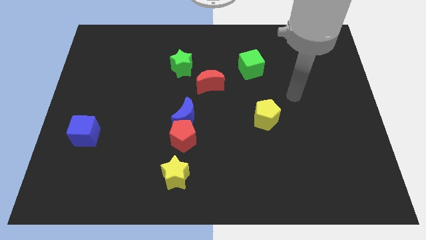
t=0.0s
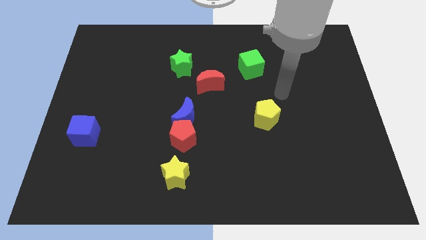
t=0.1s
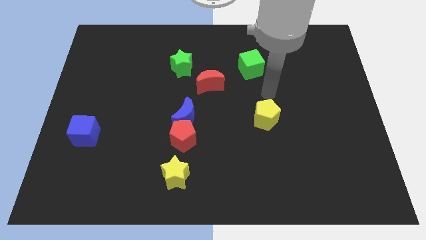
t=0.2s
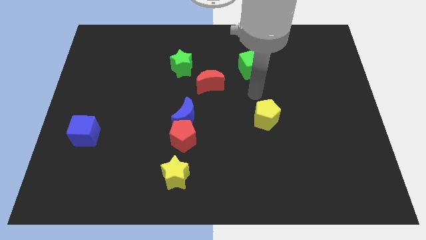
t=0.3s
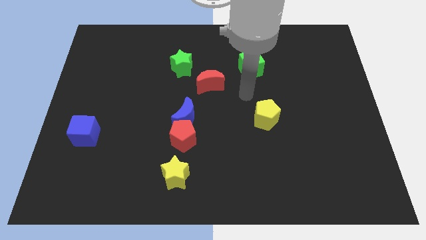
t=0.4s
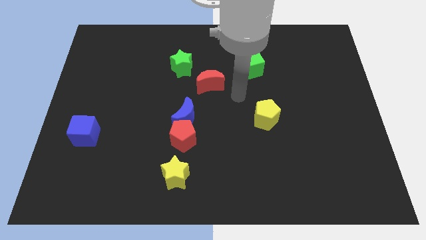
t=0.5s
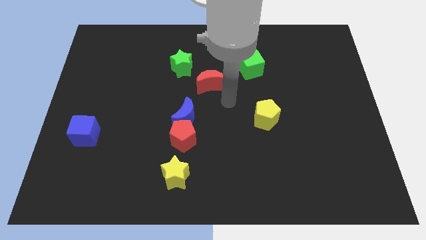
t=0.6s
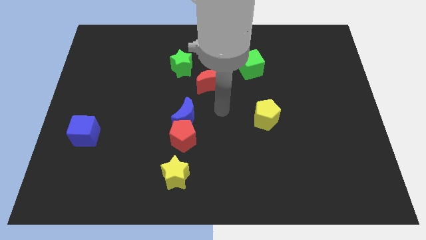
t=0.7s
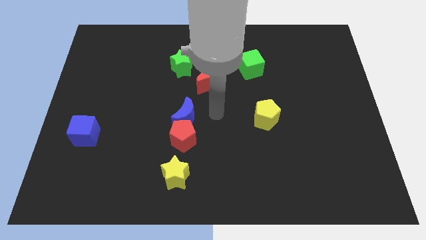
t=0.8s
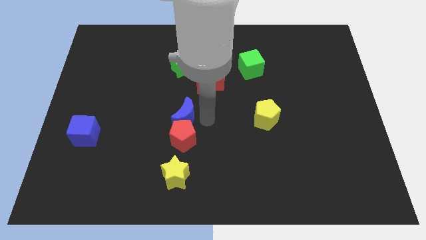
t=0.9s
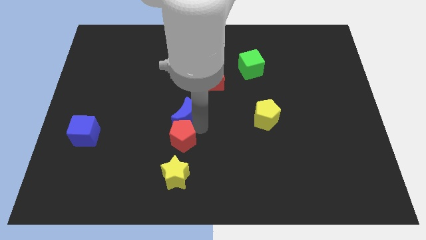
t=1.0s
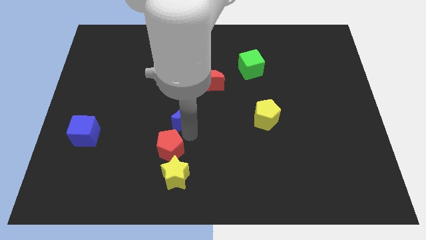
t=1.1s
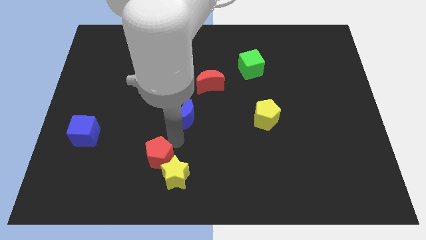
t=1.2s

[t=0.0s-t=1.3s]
separate the blue moon from the red pentagon

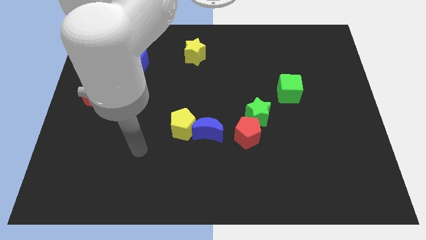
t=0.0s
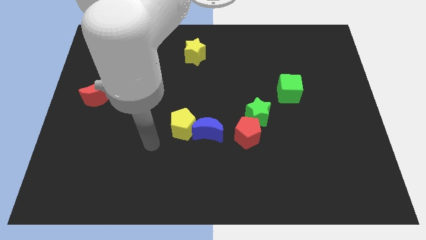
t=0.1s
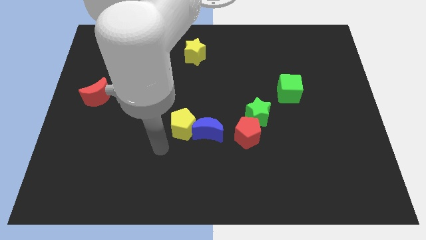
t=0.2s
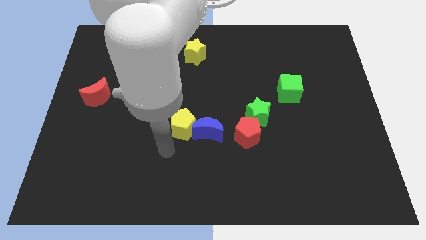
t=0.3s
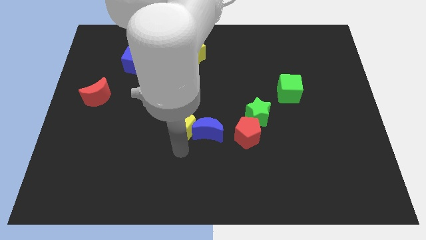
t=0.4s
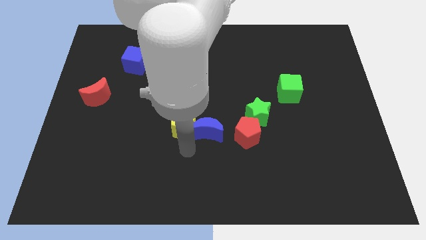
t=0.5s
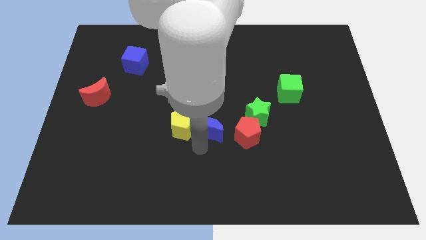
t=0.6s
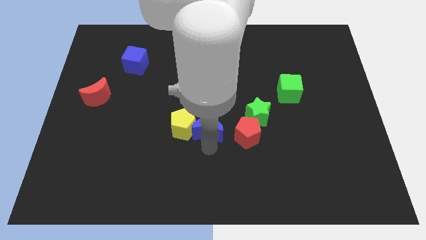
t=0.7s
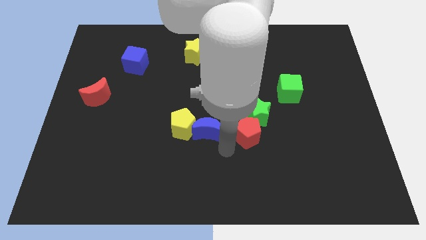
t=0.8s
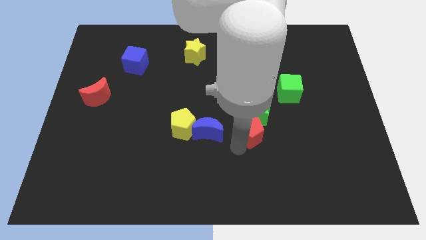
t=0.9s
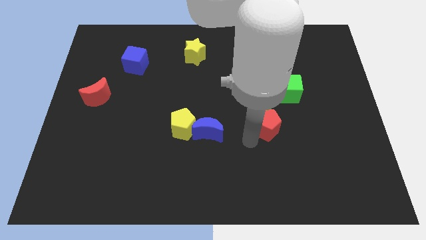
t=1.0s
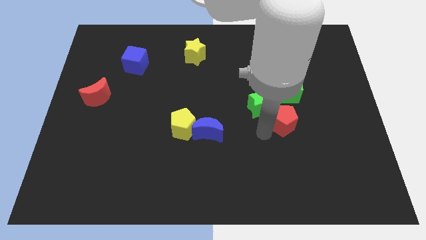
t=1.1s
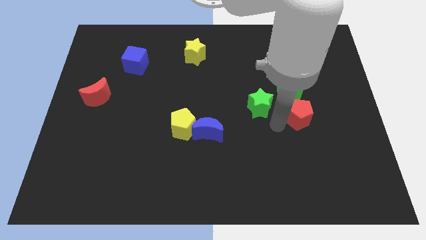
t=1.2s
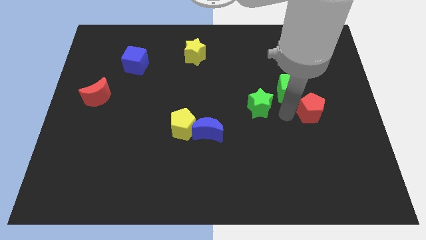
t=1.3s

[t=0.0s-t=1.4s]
separate the green star from the red pentagon

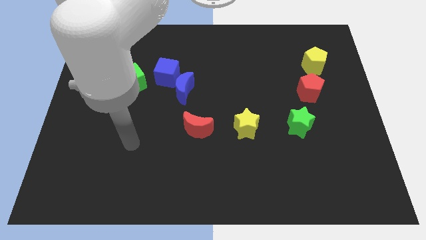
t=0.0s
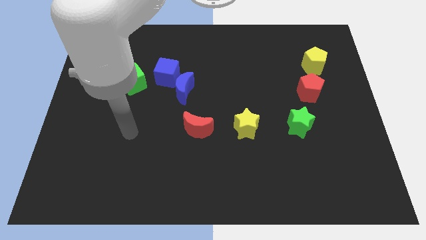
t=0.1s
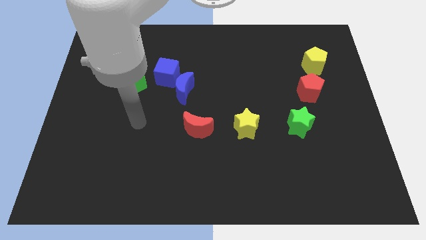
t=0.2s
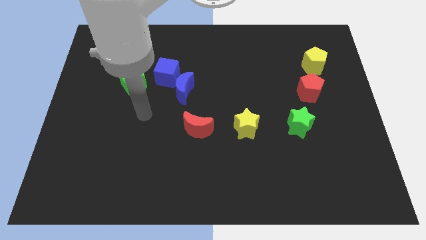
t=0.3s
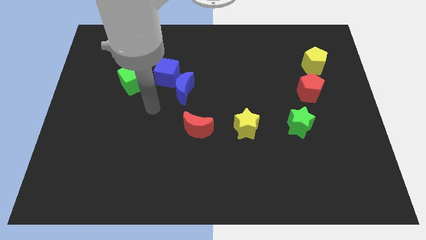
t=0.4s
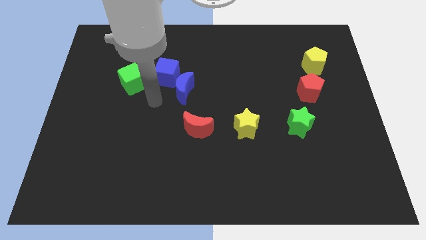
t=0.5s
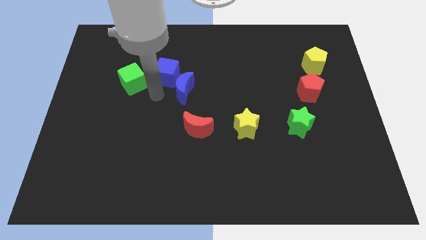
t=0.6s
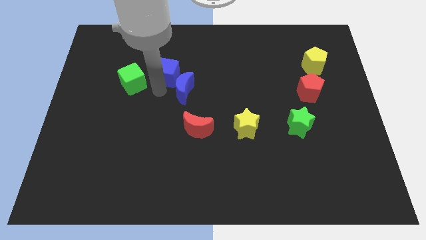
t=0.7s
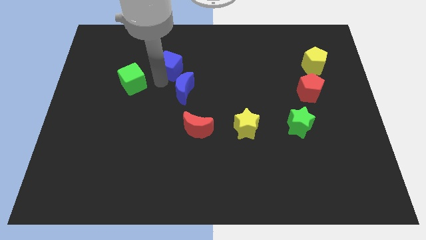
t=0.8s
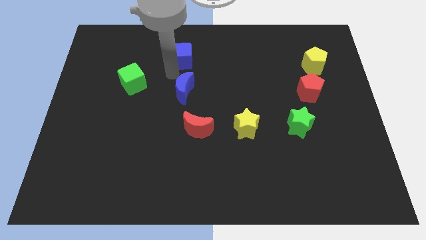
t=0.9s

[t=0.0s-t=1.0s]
move the blue moon away from the blue cube

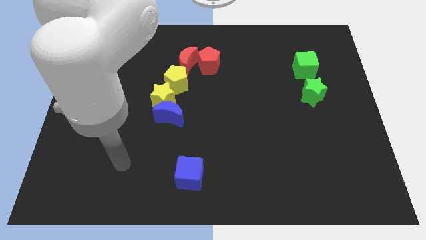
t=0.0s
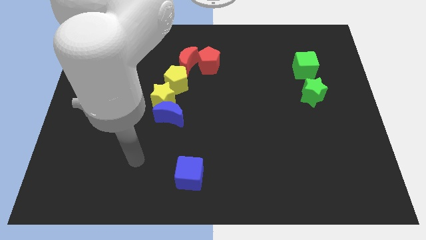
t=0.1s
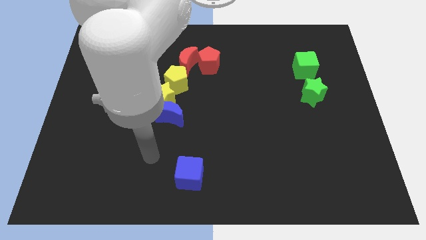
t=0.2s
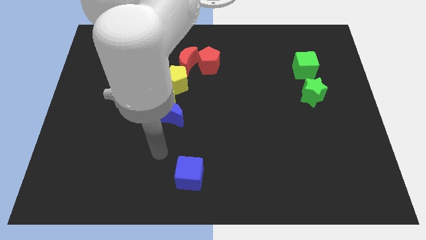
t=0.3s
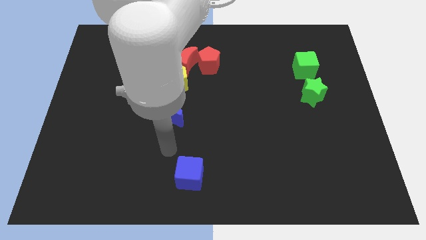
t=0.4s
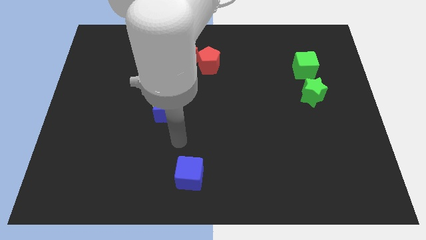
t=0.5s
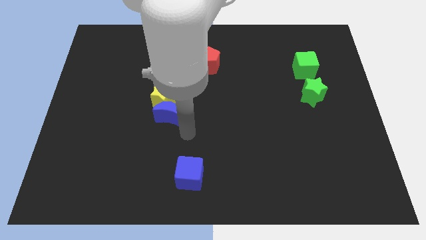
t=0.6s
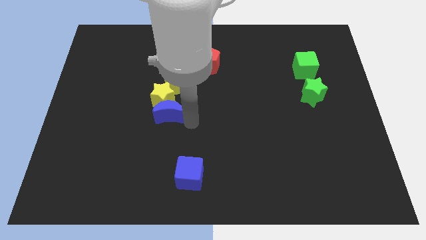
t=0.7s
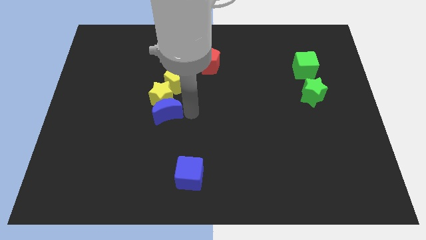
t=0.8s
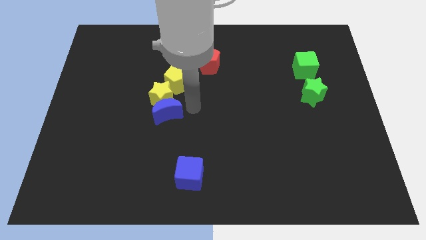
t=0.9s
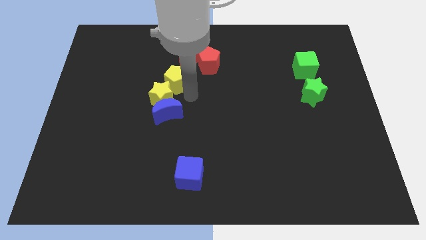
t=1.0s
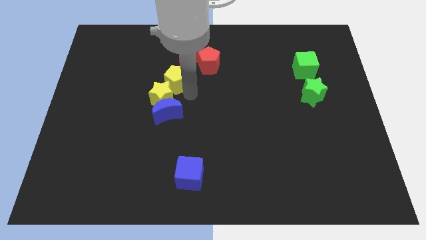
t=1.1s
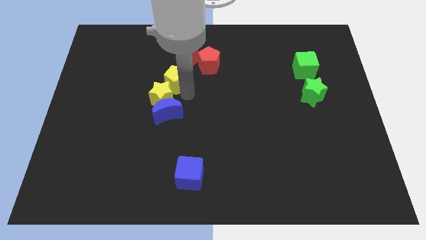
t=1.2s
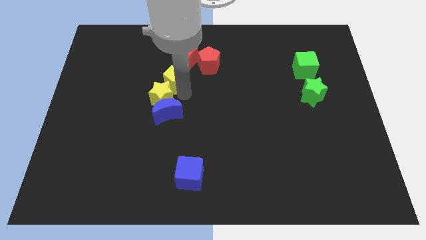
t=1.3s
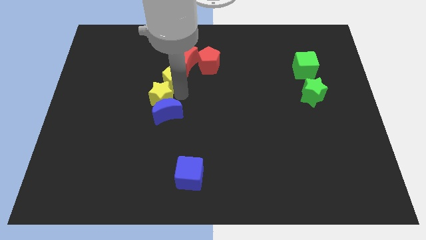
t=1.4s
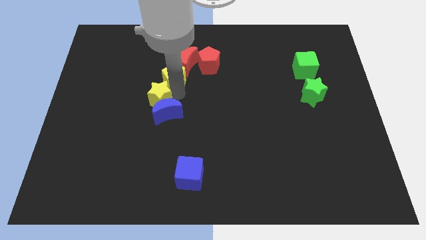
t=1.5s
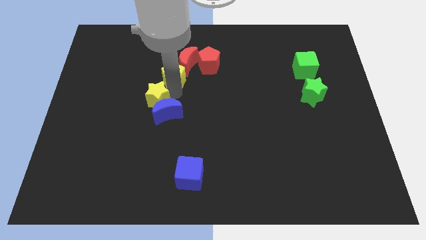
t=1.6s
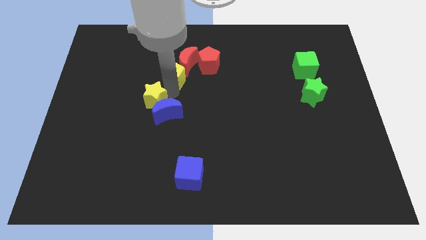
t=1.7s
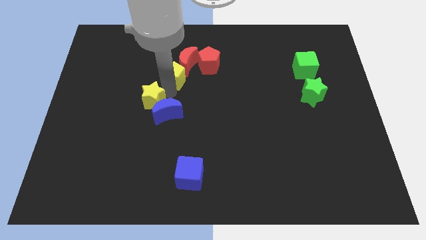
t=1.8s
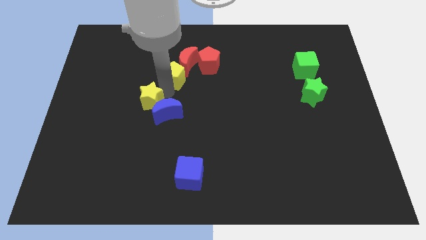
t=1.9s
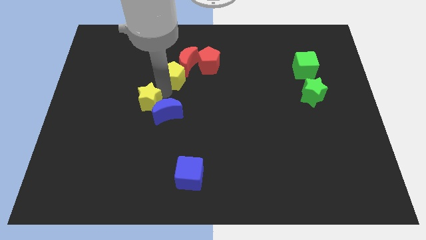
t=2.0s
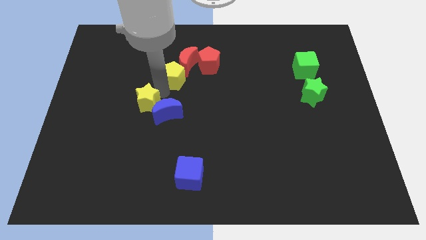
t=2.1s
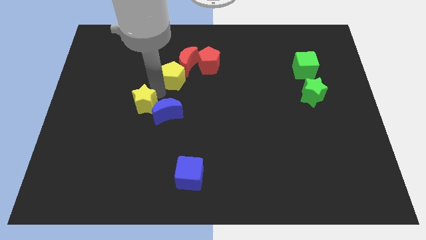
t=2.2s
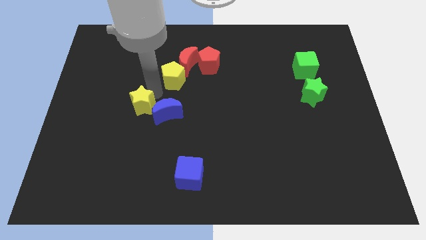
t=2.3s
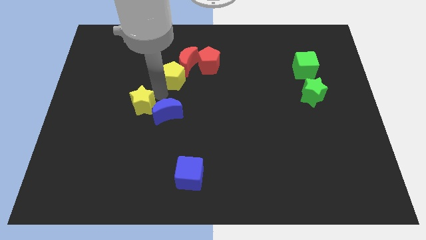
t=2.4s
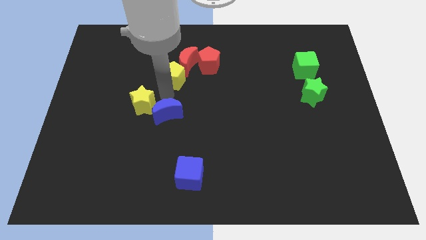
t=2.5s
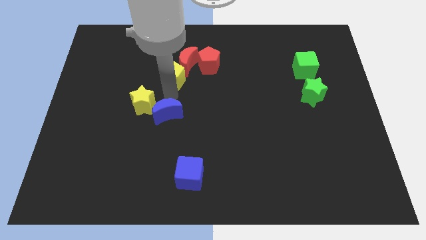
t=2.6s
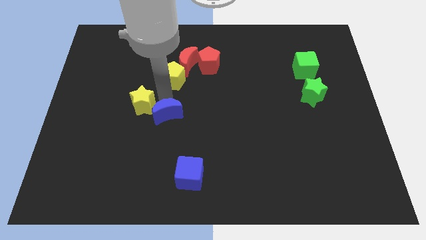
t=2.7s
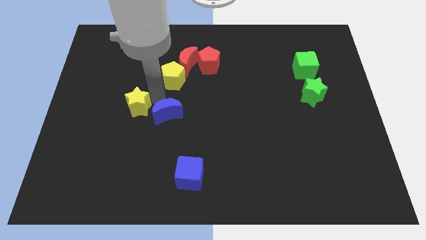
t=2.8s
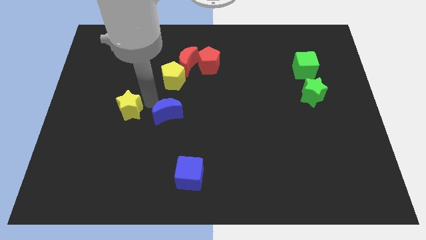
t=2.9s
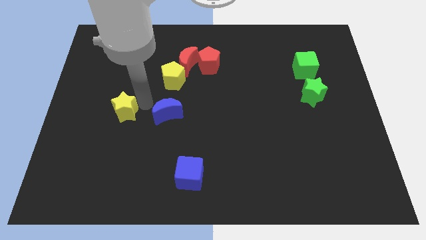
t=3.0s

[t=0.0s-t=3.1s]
move the yellow star away from the blue moon and yellow pentagon

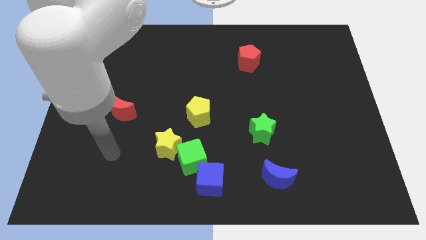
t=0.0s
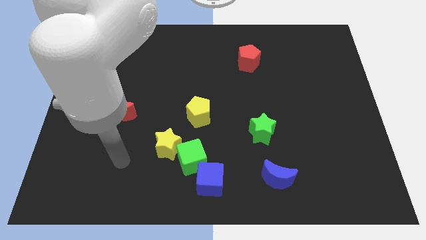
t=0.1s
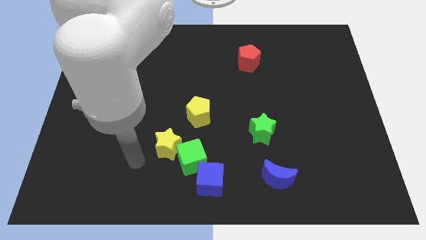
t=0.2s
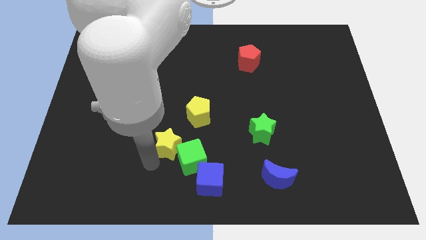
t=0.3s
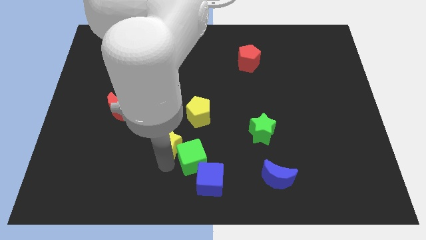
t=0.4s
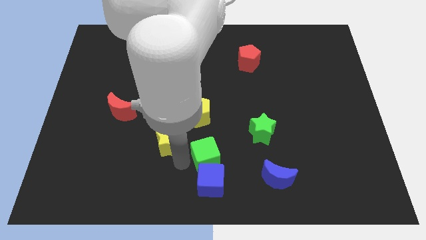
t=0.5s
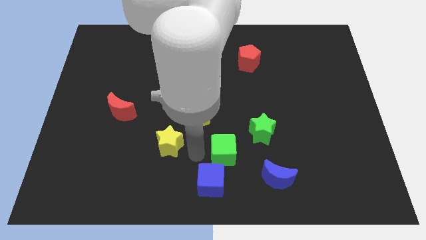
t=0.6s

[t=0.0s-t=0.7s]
move the yellow star away from the green cube

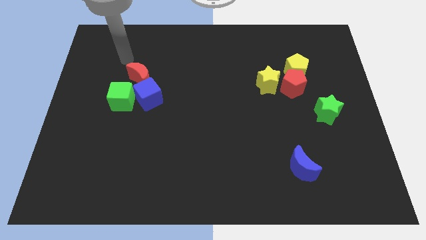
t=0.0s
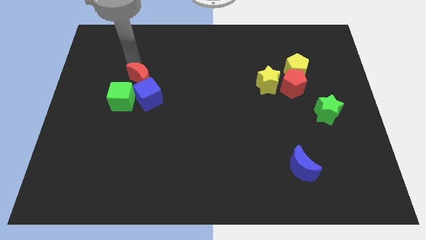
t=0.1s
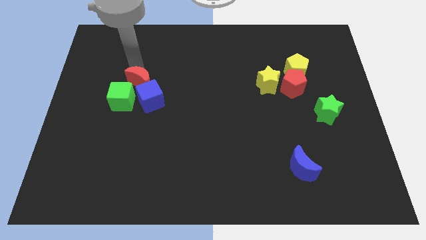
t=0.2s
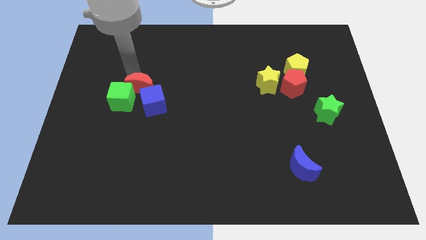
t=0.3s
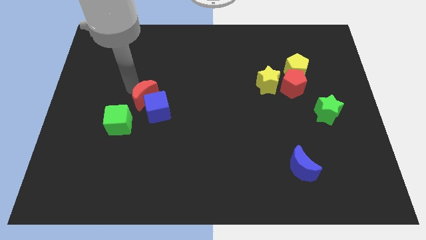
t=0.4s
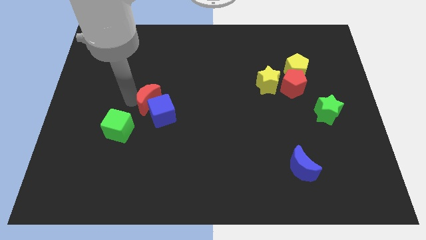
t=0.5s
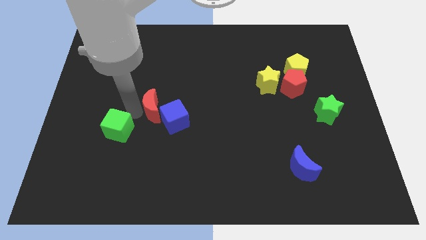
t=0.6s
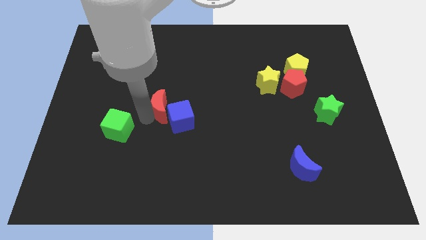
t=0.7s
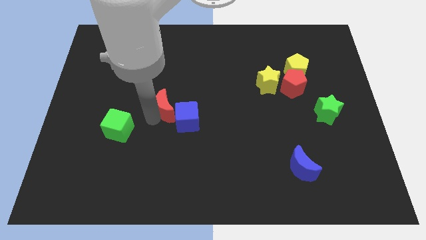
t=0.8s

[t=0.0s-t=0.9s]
pull the blue cube apart from the green cube and red moon

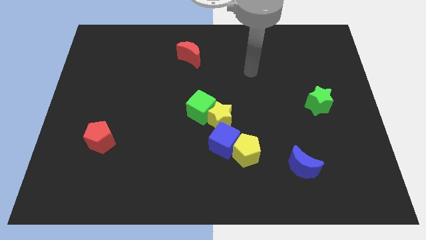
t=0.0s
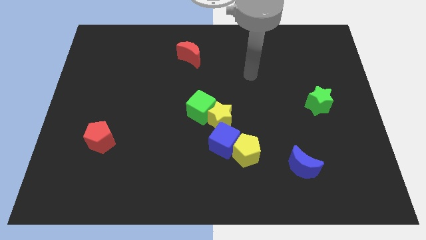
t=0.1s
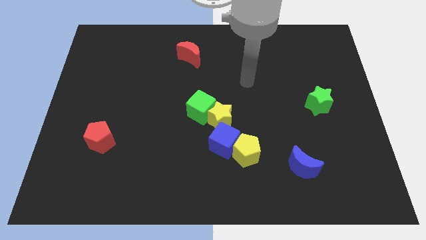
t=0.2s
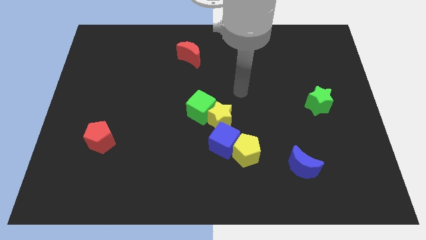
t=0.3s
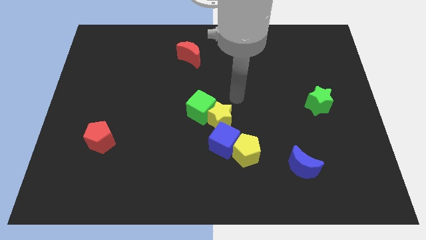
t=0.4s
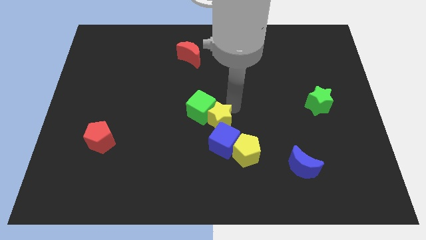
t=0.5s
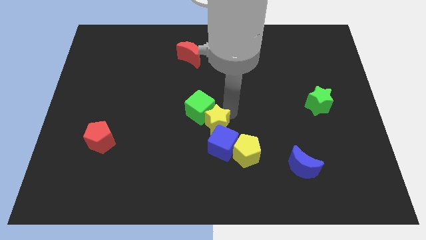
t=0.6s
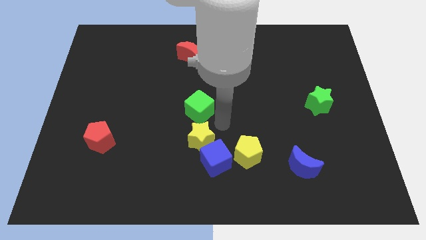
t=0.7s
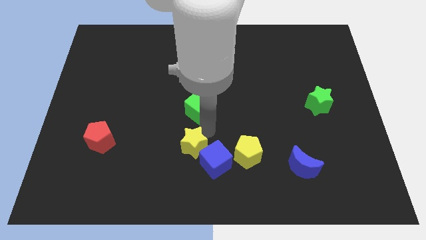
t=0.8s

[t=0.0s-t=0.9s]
move the green cube away from the yellow star
